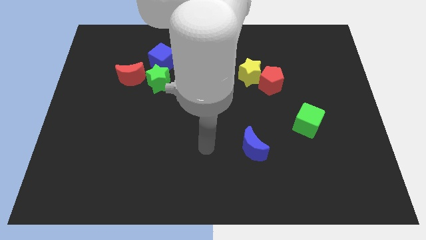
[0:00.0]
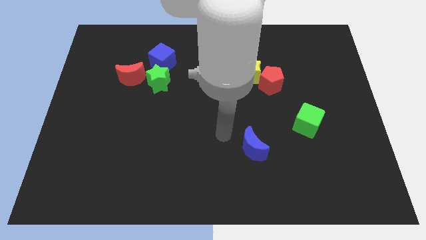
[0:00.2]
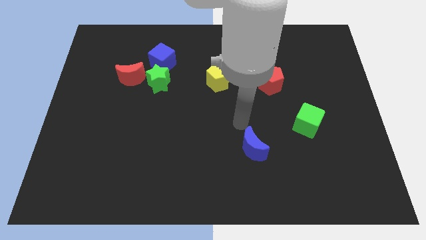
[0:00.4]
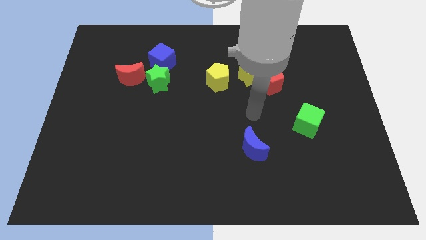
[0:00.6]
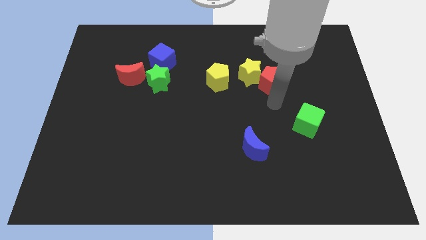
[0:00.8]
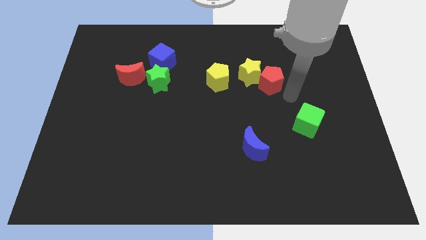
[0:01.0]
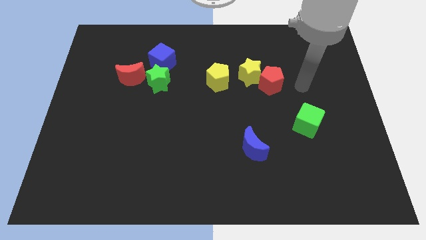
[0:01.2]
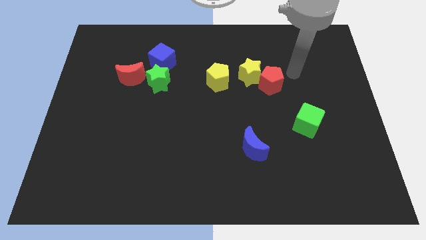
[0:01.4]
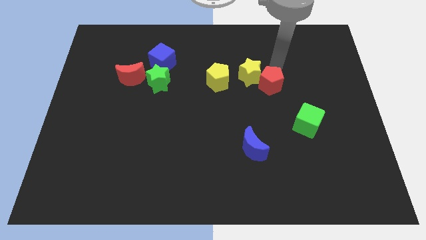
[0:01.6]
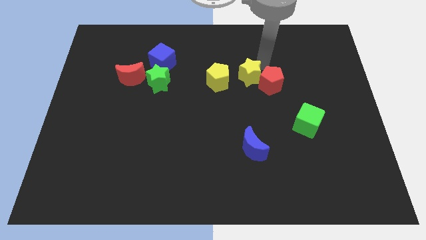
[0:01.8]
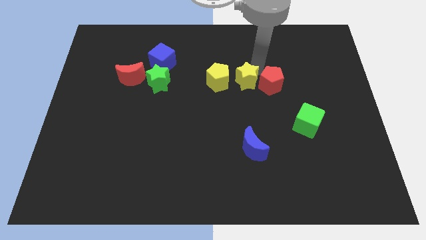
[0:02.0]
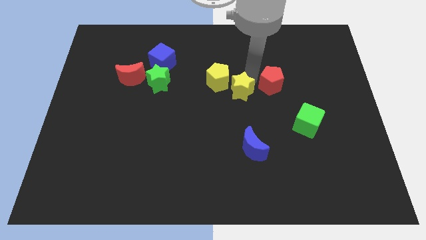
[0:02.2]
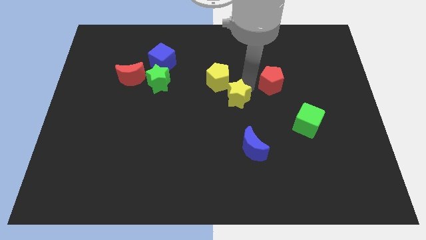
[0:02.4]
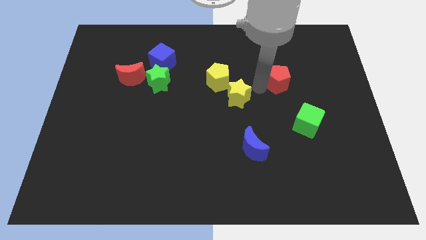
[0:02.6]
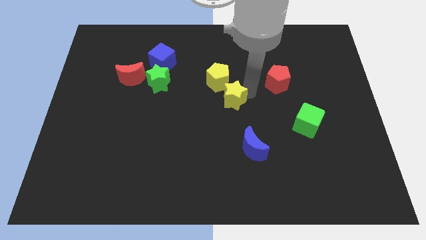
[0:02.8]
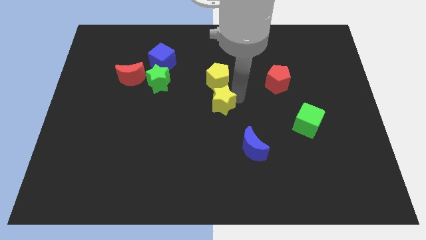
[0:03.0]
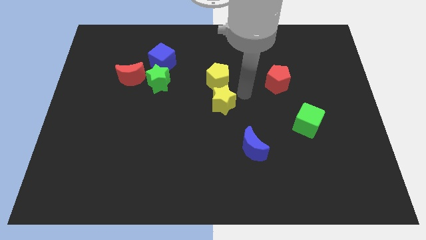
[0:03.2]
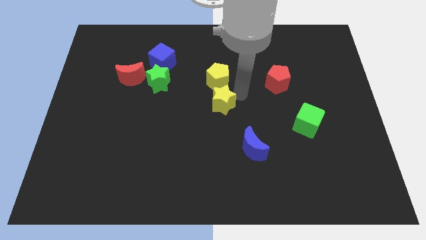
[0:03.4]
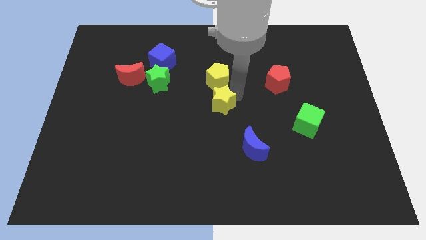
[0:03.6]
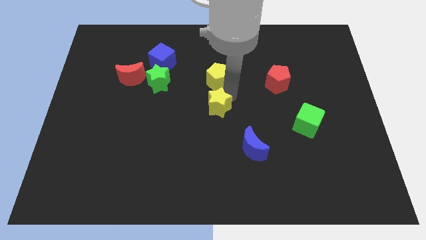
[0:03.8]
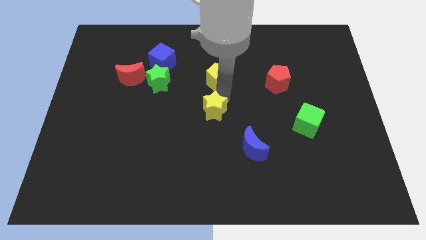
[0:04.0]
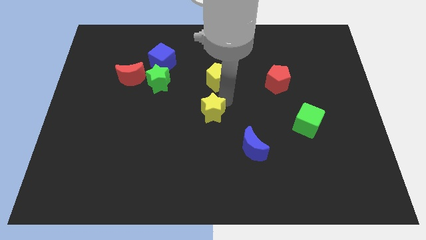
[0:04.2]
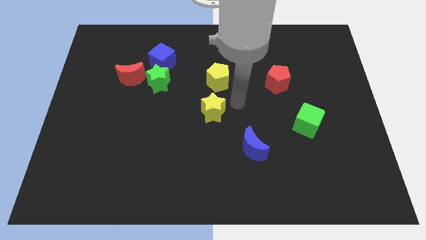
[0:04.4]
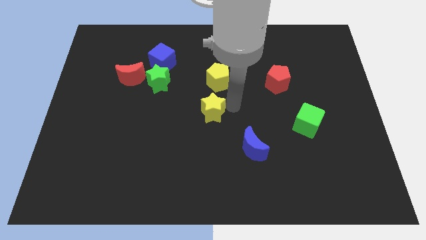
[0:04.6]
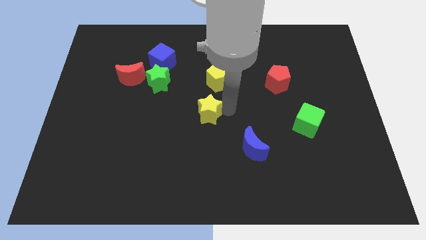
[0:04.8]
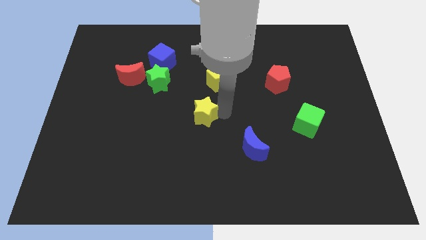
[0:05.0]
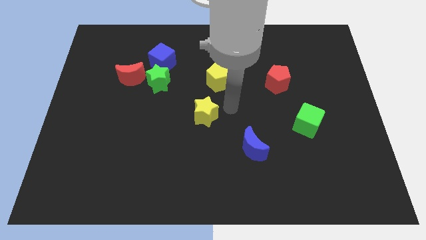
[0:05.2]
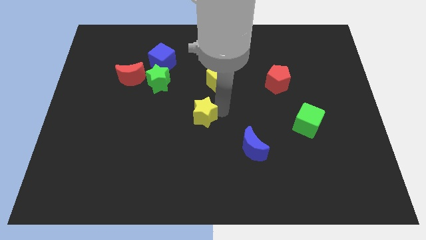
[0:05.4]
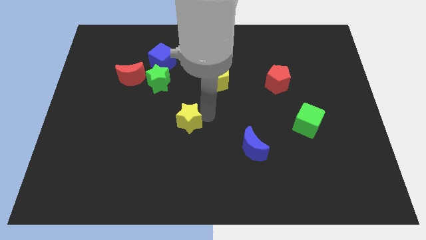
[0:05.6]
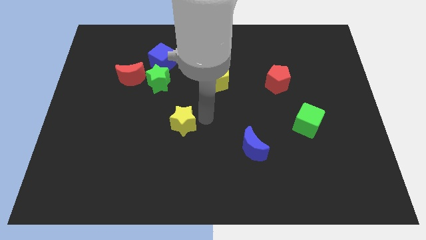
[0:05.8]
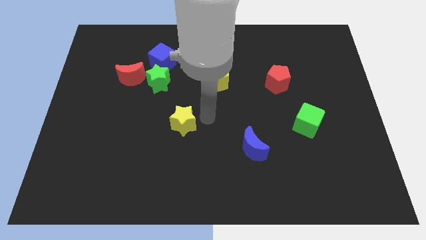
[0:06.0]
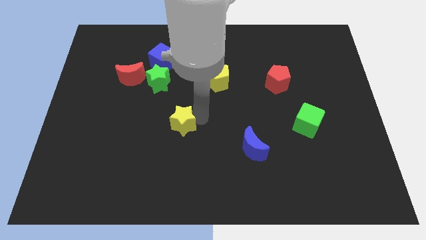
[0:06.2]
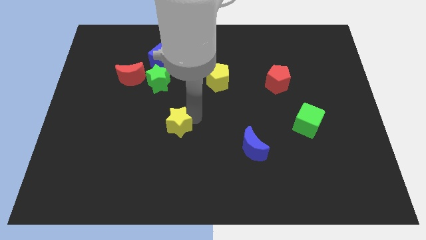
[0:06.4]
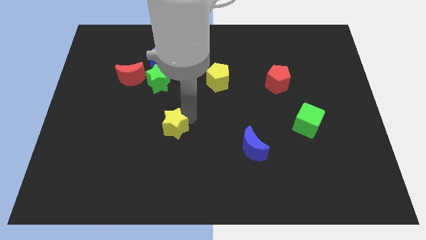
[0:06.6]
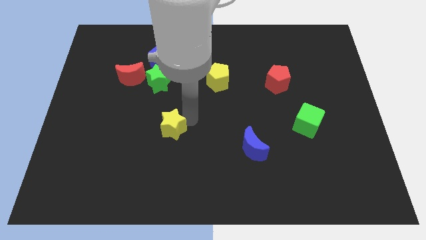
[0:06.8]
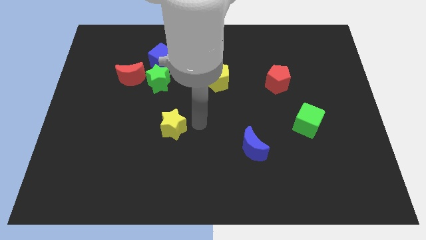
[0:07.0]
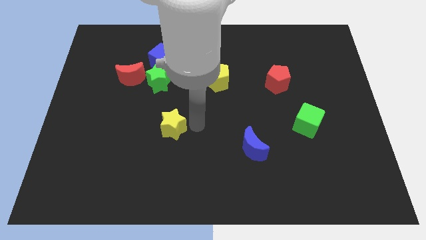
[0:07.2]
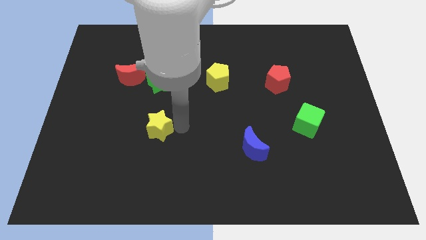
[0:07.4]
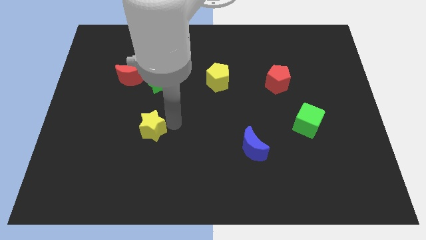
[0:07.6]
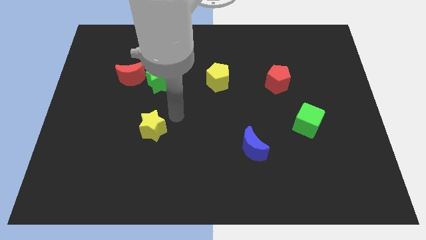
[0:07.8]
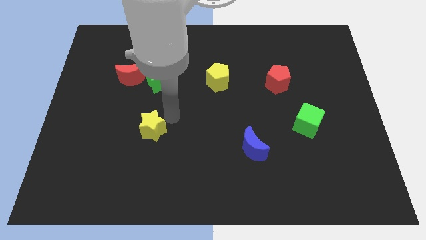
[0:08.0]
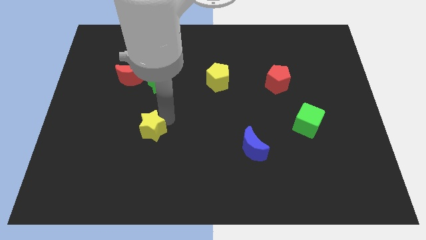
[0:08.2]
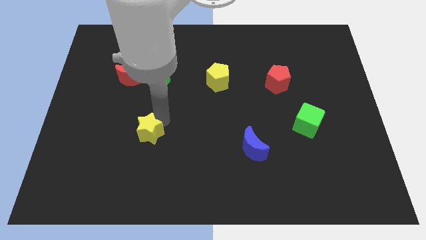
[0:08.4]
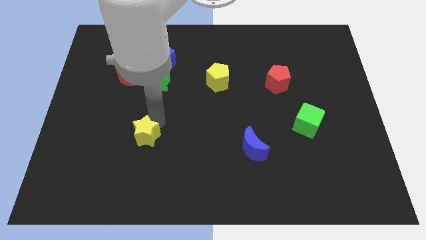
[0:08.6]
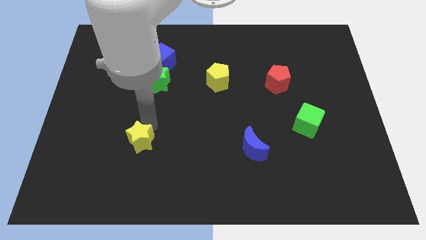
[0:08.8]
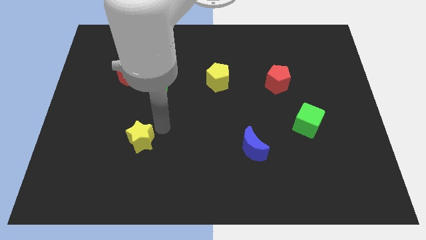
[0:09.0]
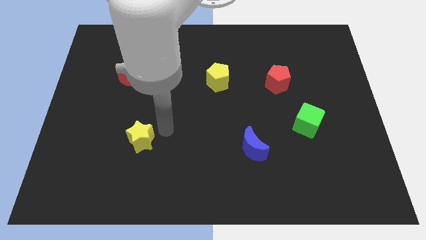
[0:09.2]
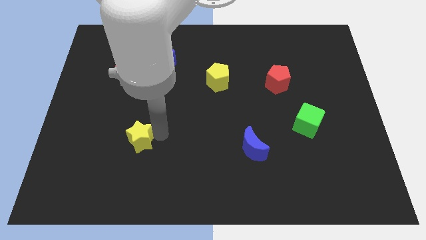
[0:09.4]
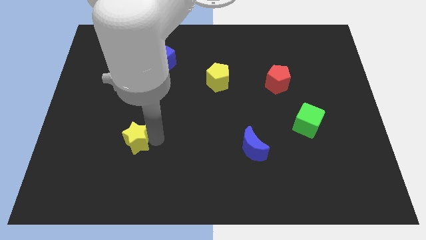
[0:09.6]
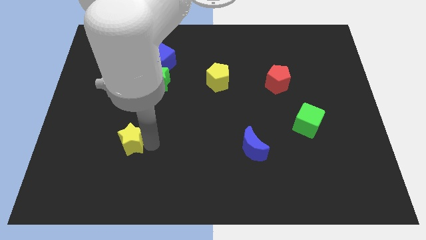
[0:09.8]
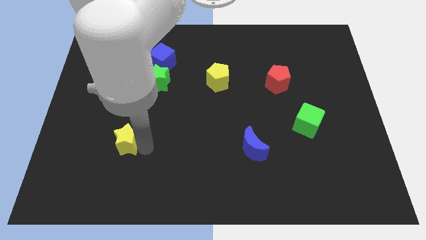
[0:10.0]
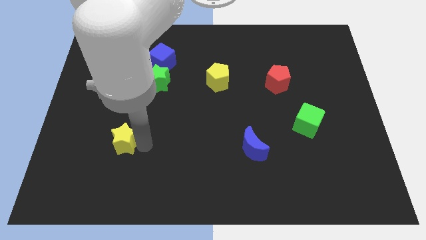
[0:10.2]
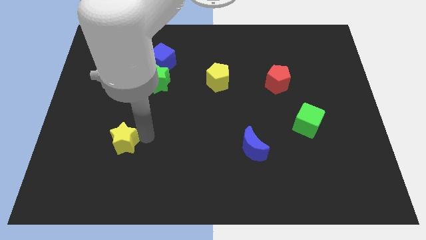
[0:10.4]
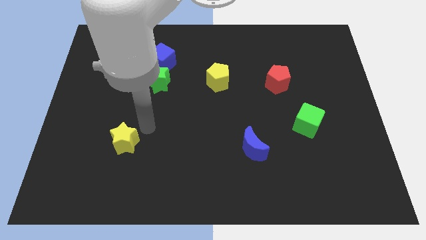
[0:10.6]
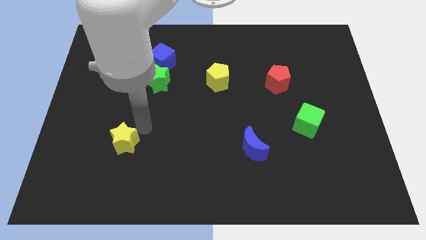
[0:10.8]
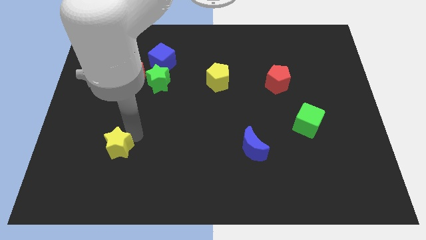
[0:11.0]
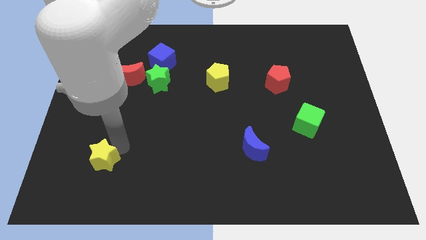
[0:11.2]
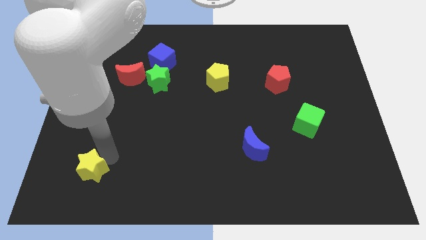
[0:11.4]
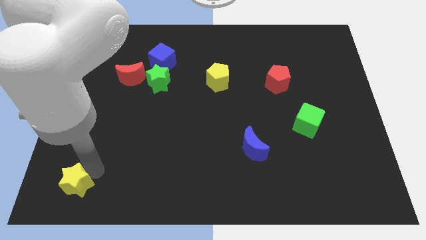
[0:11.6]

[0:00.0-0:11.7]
slide the yellow star to the bottom left of the board

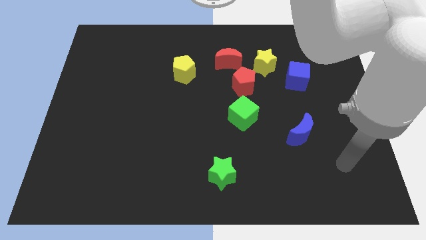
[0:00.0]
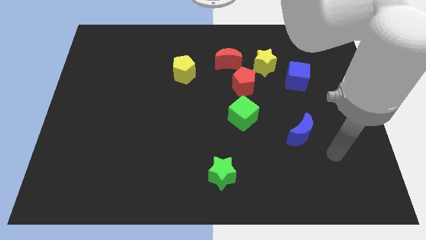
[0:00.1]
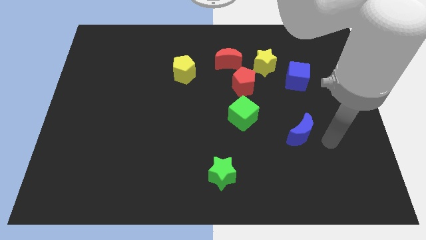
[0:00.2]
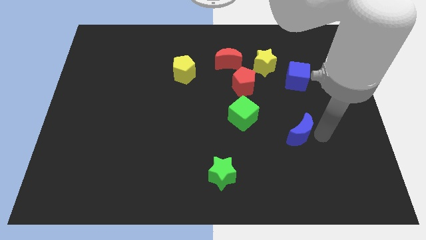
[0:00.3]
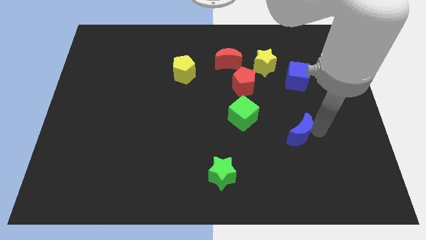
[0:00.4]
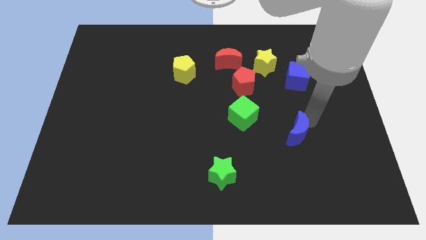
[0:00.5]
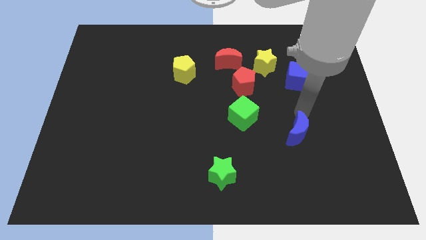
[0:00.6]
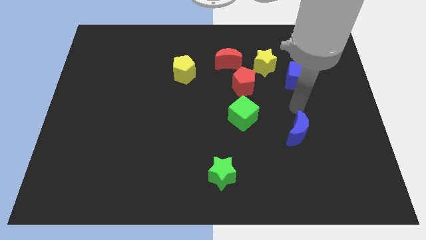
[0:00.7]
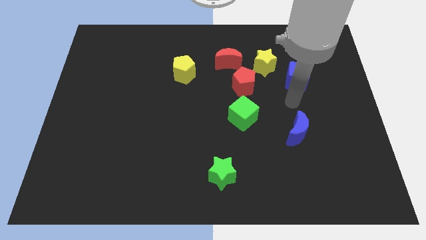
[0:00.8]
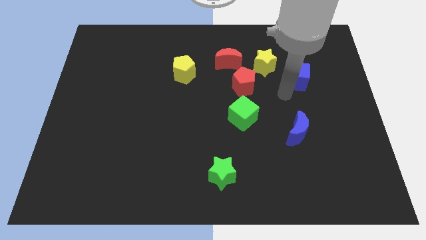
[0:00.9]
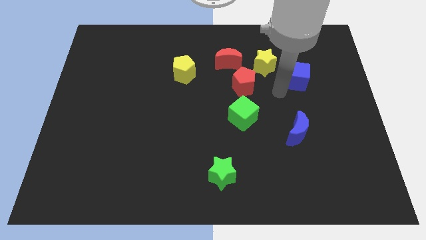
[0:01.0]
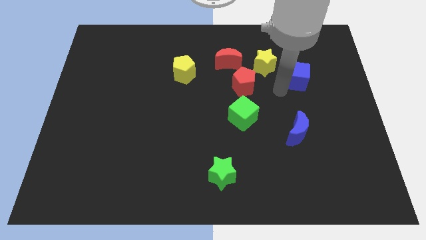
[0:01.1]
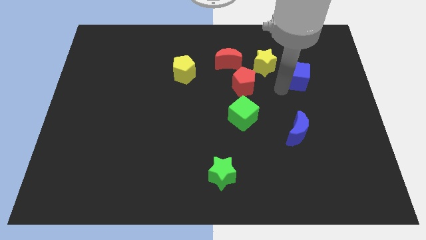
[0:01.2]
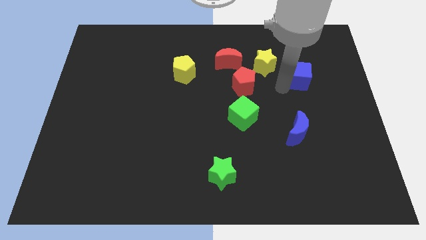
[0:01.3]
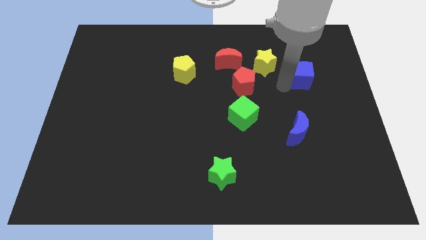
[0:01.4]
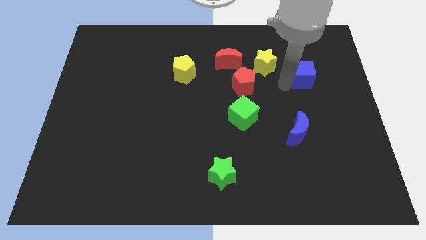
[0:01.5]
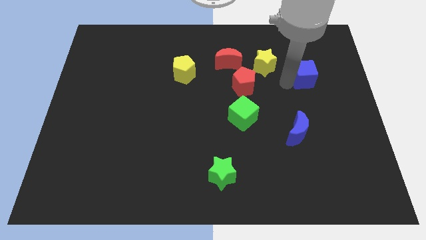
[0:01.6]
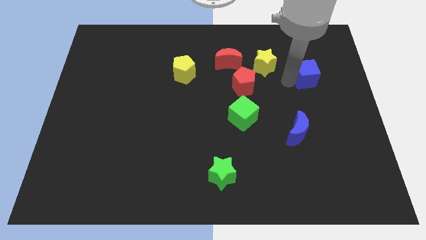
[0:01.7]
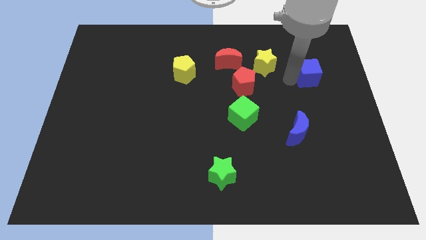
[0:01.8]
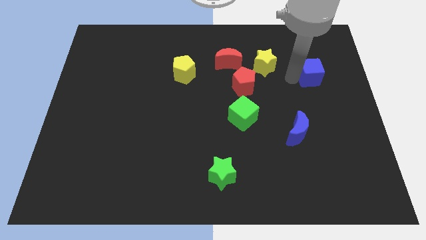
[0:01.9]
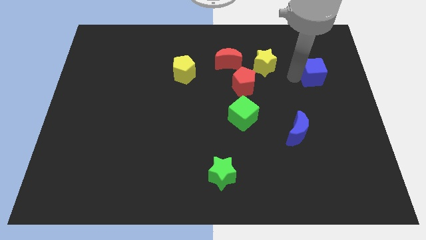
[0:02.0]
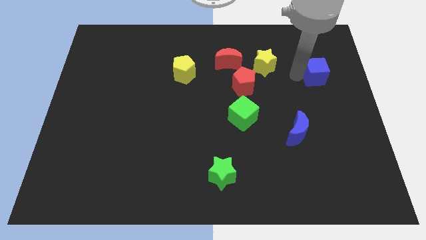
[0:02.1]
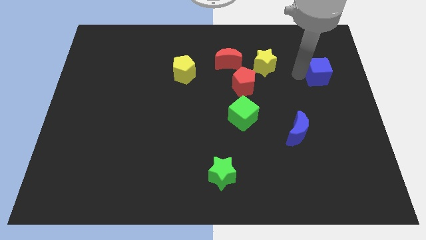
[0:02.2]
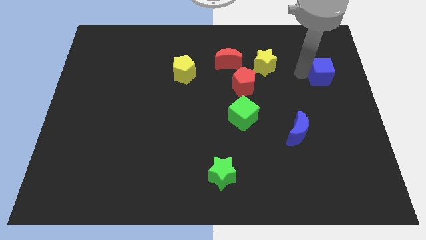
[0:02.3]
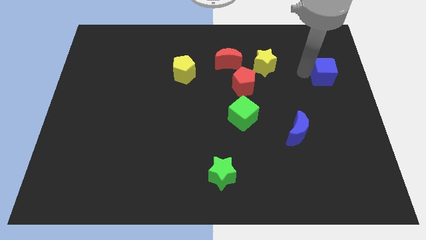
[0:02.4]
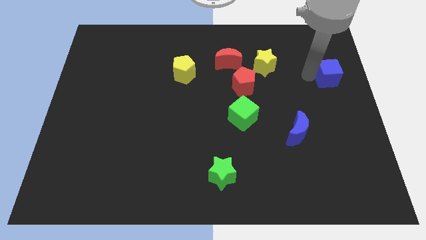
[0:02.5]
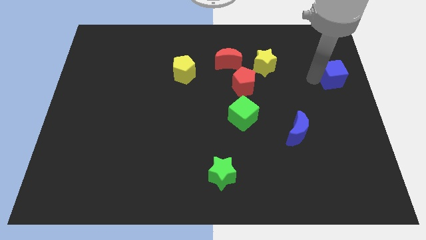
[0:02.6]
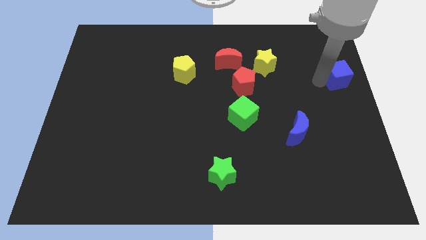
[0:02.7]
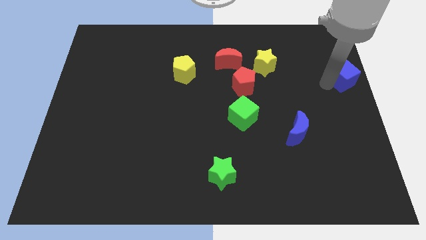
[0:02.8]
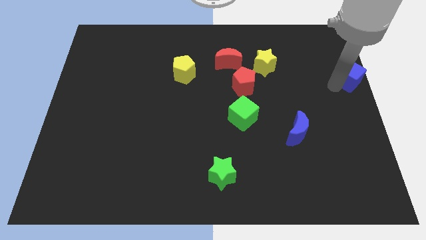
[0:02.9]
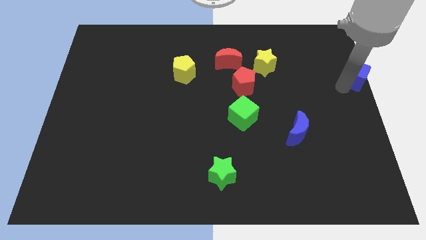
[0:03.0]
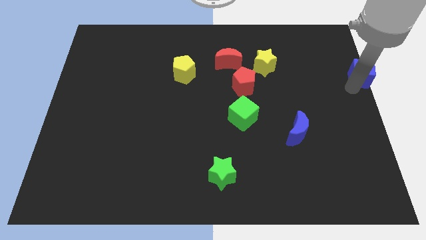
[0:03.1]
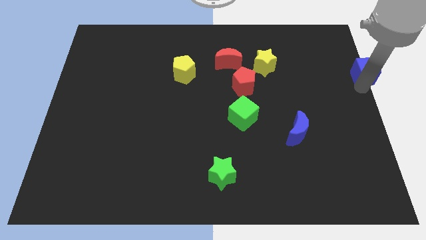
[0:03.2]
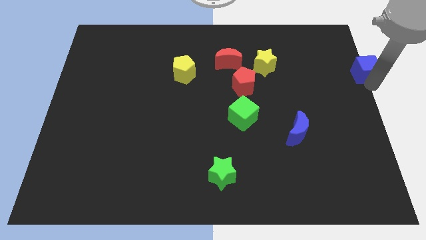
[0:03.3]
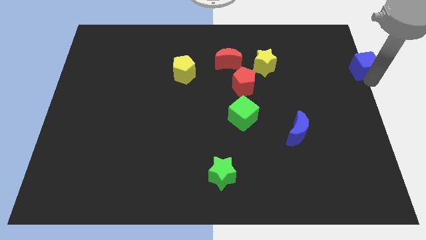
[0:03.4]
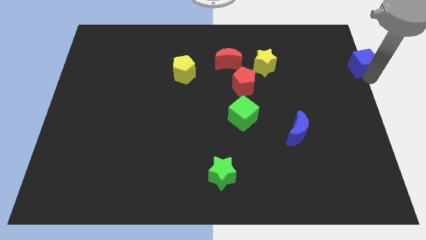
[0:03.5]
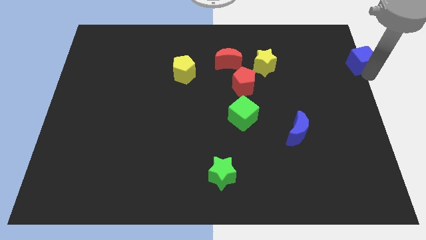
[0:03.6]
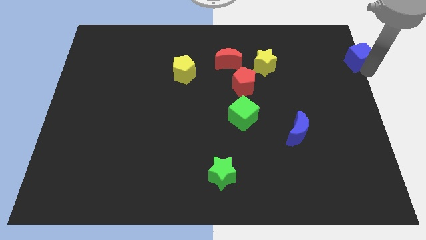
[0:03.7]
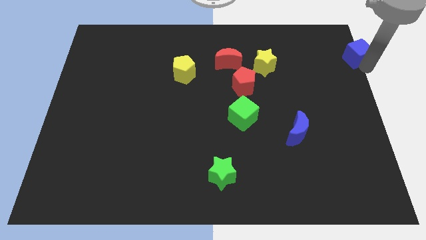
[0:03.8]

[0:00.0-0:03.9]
push the blue cube to the top right of the board
